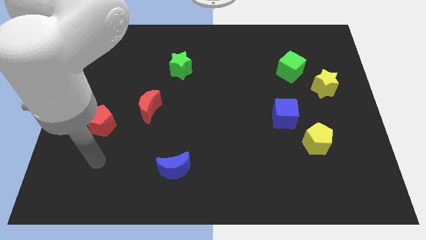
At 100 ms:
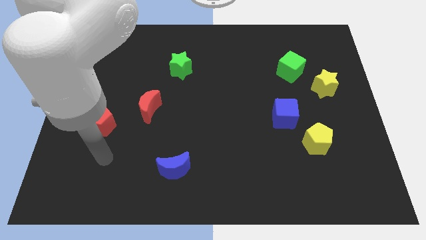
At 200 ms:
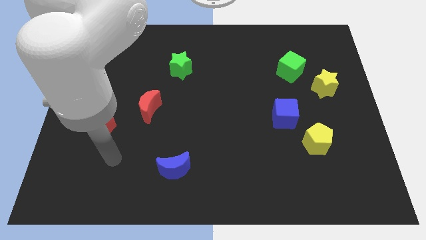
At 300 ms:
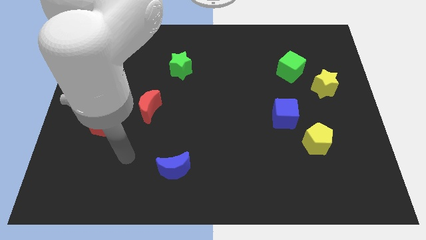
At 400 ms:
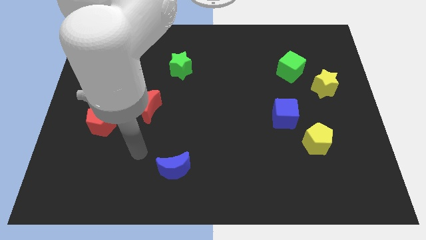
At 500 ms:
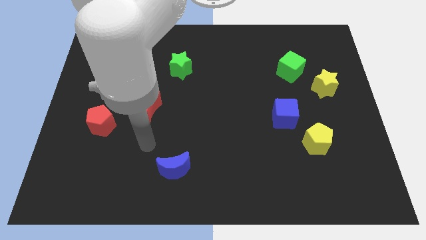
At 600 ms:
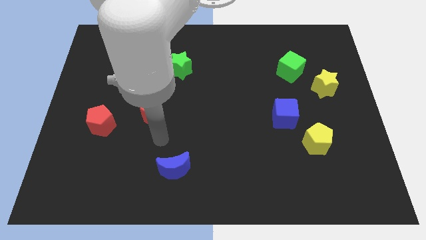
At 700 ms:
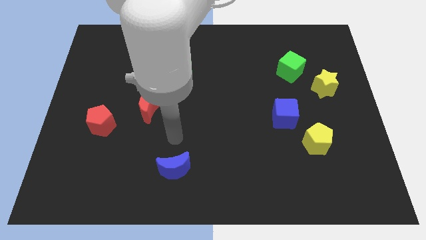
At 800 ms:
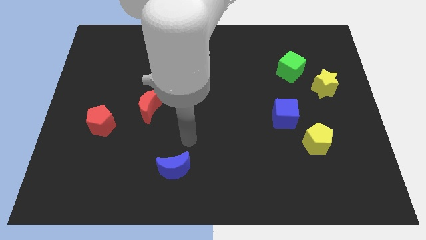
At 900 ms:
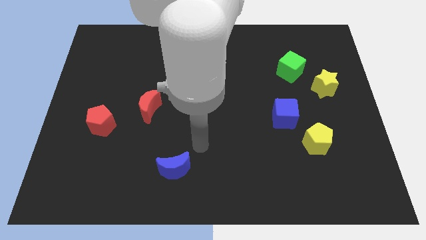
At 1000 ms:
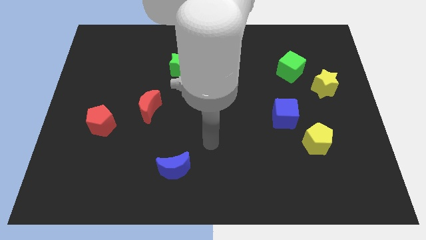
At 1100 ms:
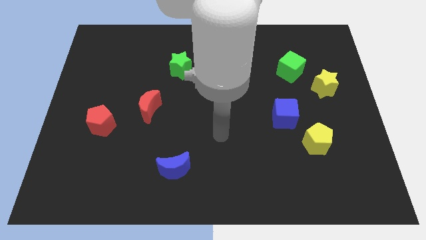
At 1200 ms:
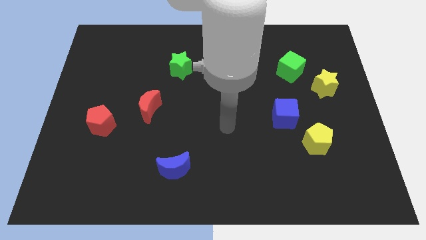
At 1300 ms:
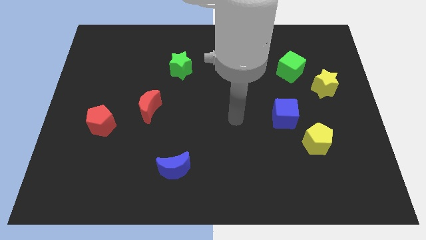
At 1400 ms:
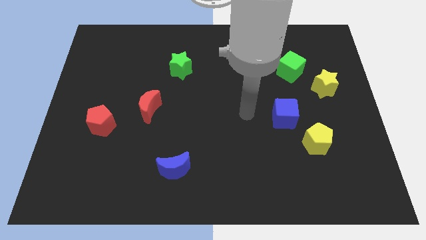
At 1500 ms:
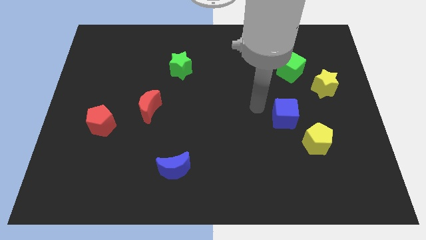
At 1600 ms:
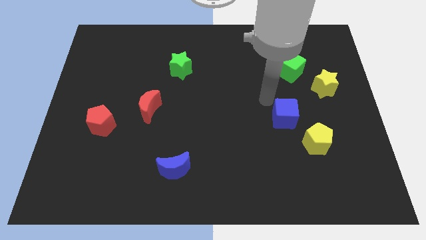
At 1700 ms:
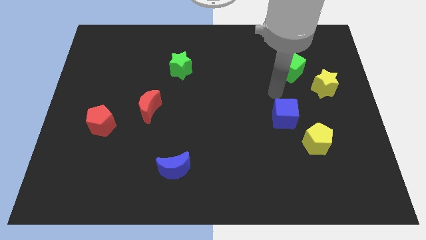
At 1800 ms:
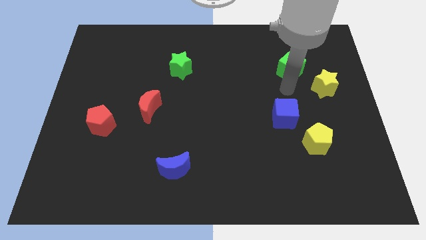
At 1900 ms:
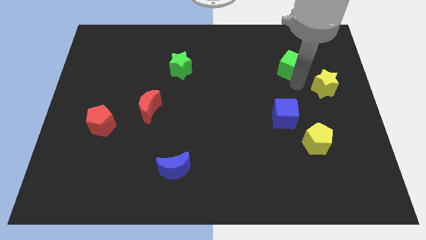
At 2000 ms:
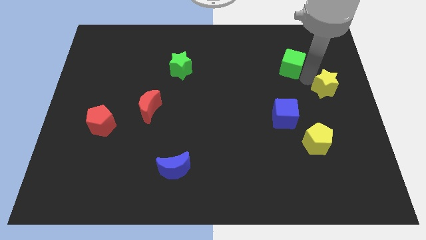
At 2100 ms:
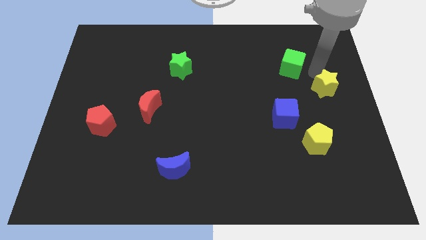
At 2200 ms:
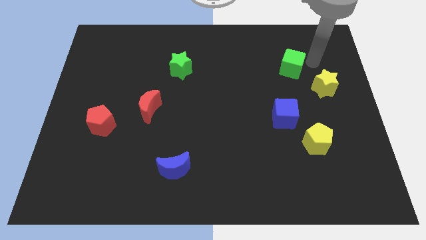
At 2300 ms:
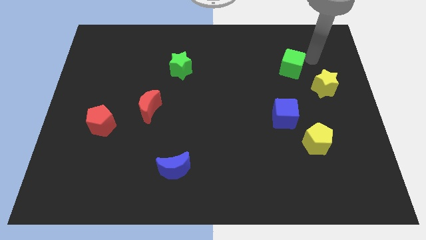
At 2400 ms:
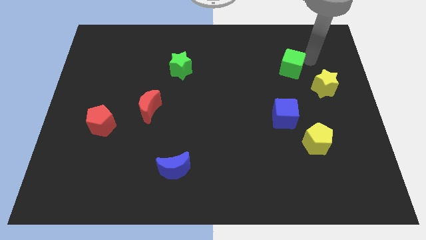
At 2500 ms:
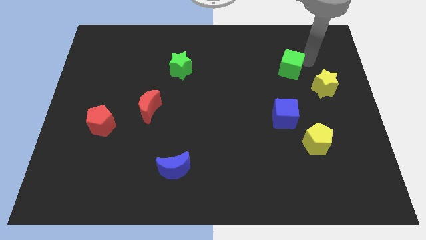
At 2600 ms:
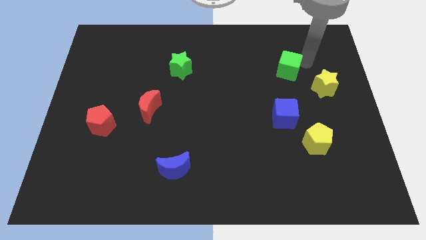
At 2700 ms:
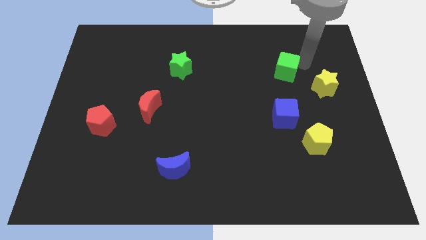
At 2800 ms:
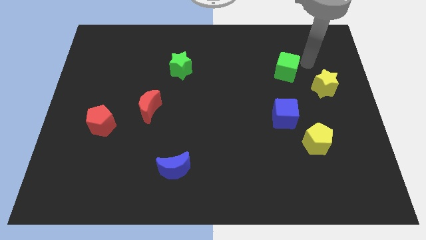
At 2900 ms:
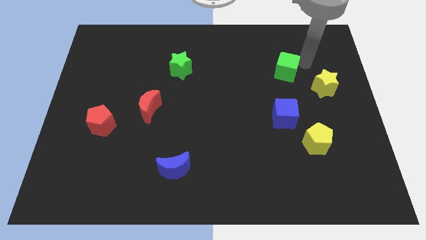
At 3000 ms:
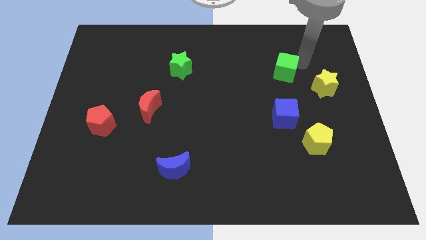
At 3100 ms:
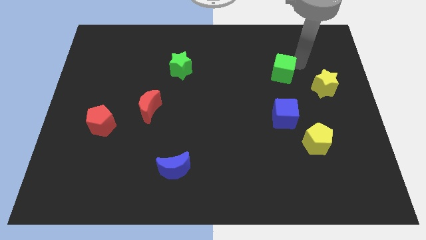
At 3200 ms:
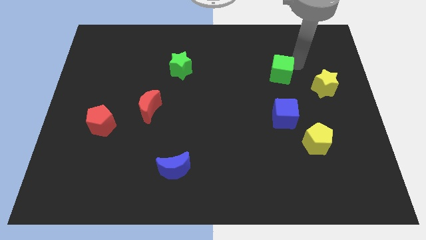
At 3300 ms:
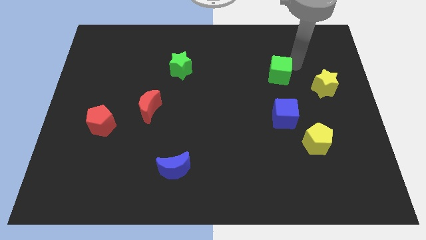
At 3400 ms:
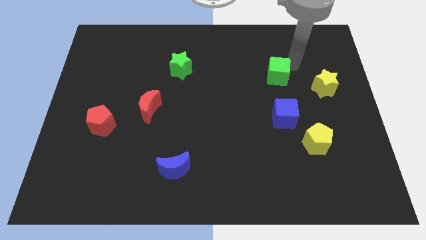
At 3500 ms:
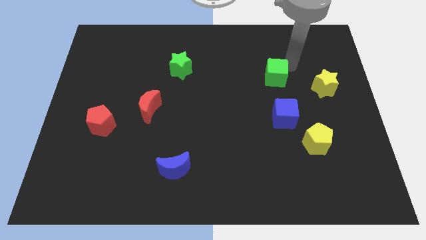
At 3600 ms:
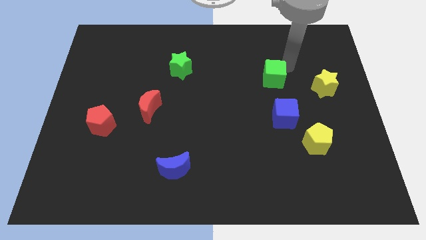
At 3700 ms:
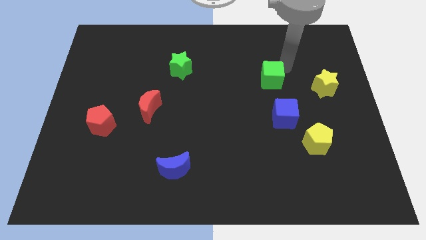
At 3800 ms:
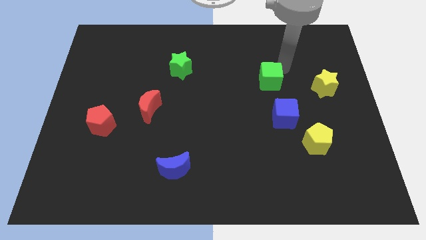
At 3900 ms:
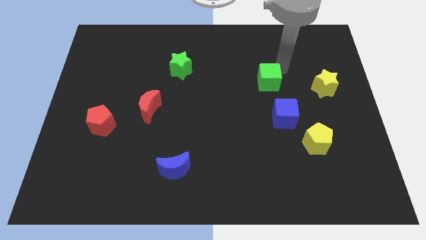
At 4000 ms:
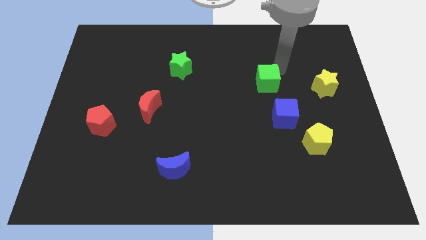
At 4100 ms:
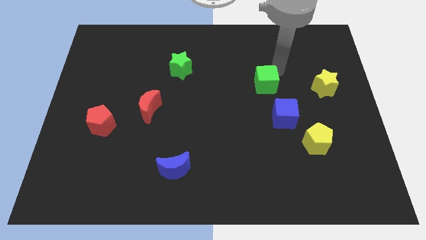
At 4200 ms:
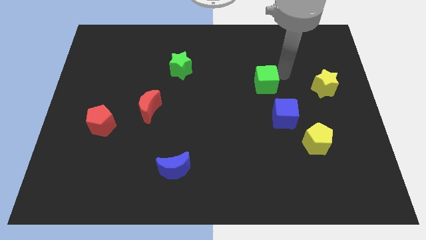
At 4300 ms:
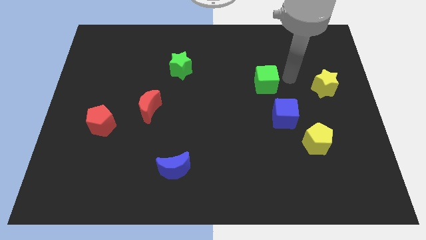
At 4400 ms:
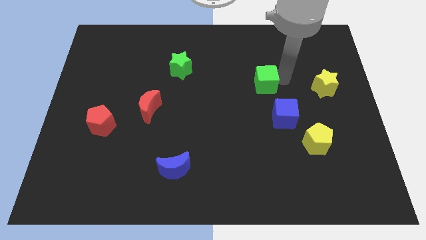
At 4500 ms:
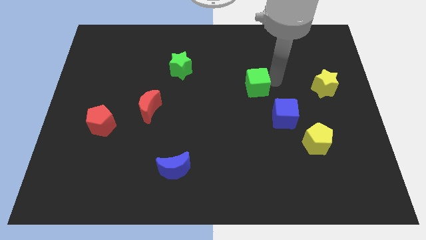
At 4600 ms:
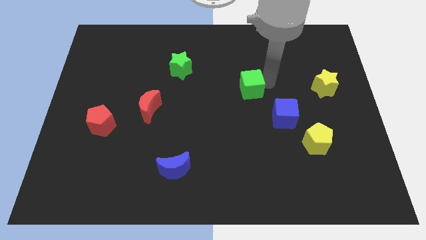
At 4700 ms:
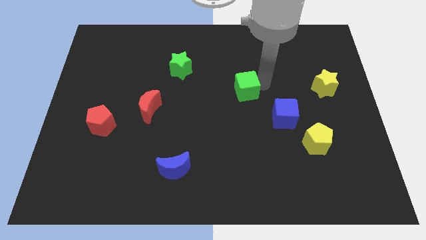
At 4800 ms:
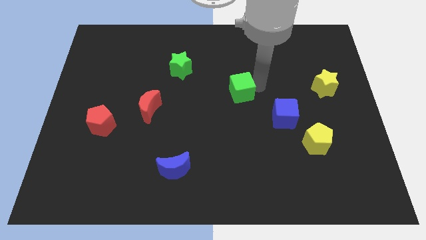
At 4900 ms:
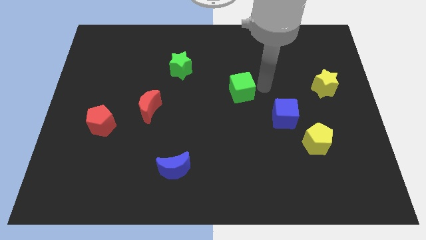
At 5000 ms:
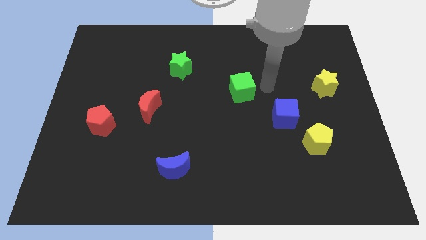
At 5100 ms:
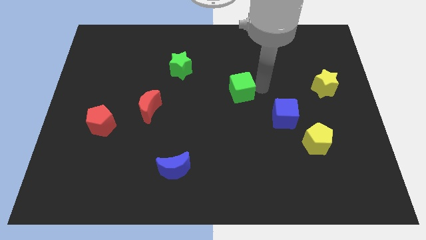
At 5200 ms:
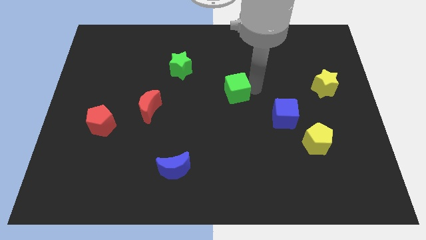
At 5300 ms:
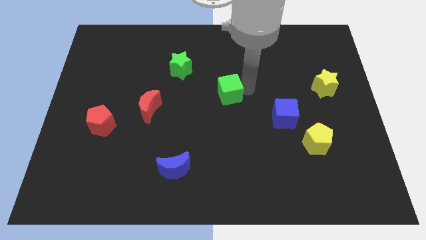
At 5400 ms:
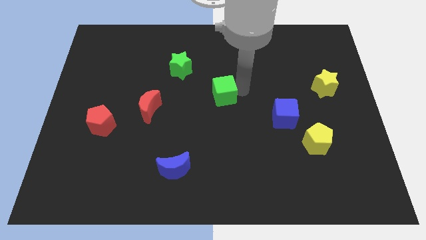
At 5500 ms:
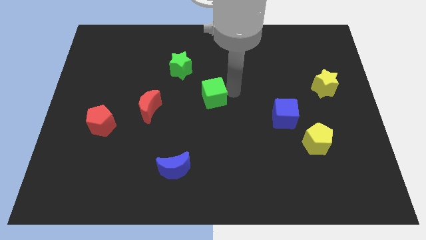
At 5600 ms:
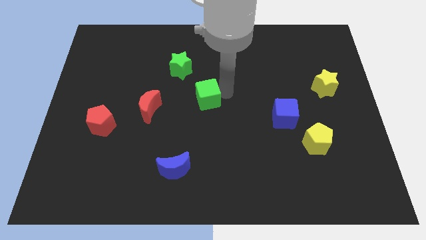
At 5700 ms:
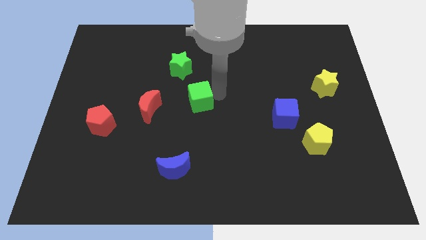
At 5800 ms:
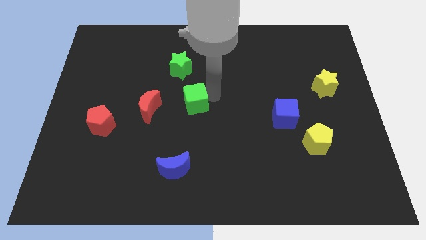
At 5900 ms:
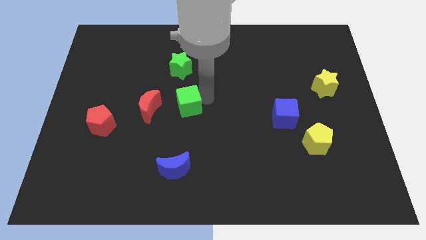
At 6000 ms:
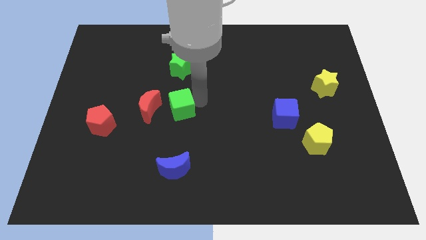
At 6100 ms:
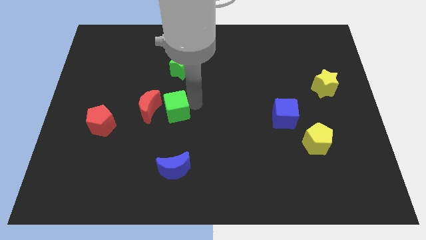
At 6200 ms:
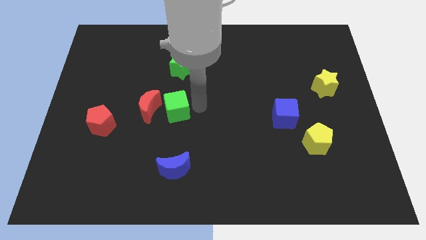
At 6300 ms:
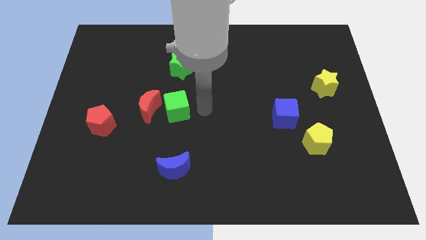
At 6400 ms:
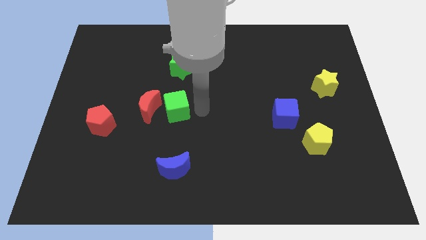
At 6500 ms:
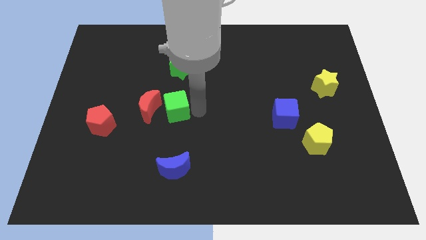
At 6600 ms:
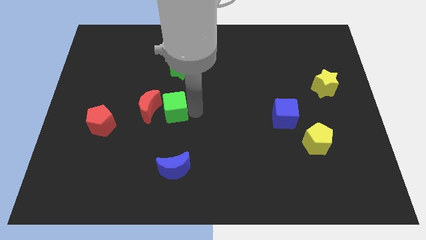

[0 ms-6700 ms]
slide the green cube towards the red moon
